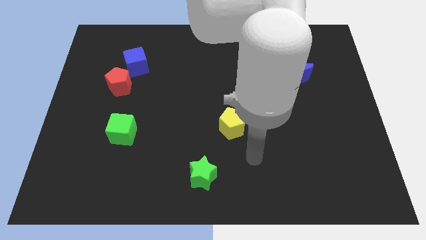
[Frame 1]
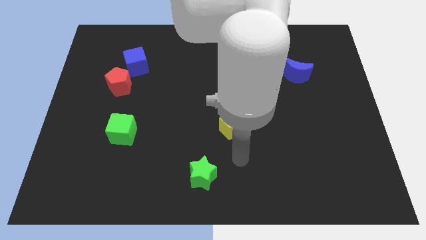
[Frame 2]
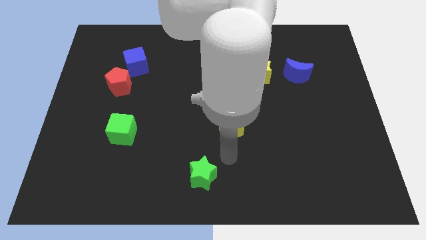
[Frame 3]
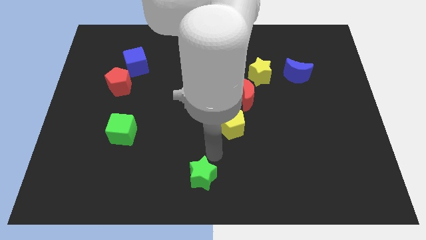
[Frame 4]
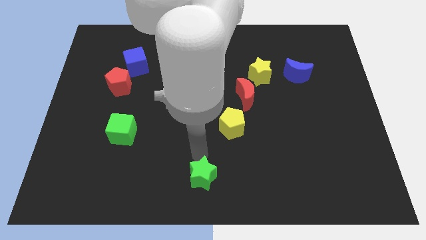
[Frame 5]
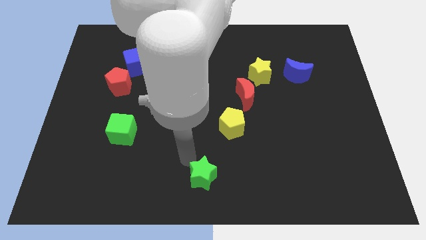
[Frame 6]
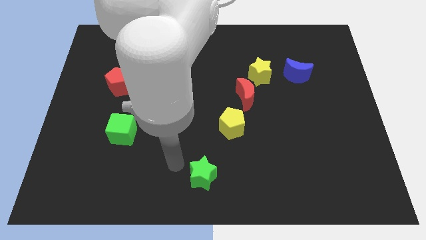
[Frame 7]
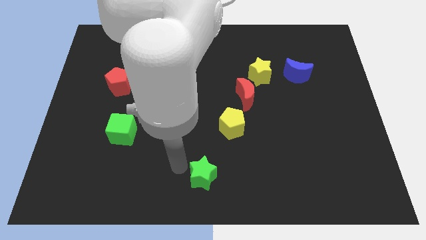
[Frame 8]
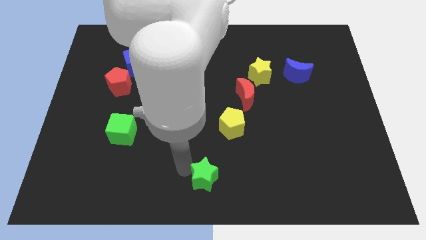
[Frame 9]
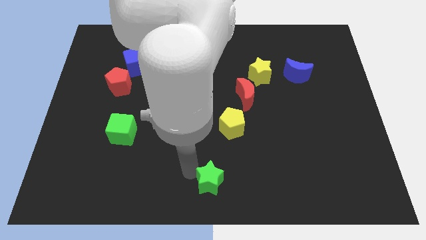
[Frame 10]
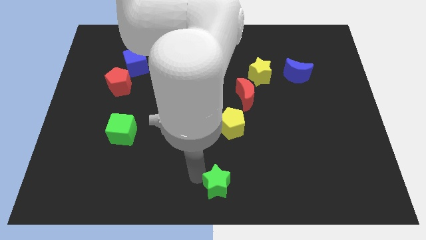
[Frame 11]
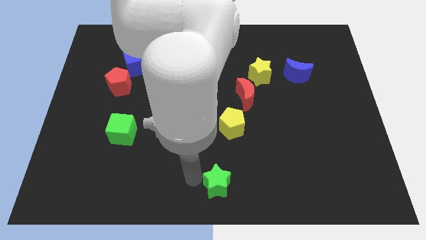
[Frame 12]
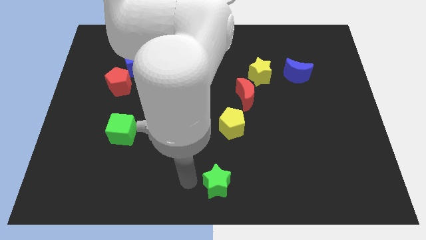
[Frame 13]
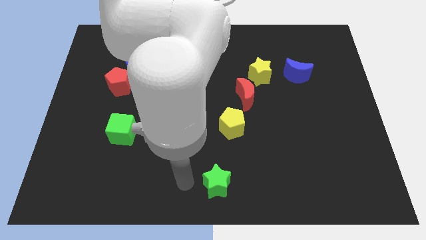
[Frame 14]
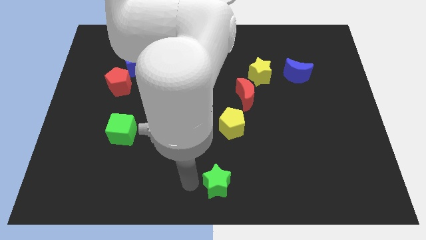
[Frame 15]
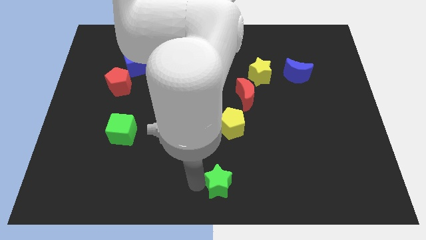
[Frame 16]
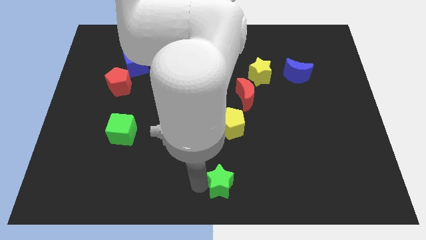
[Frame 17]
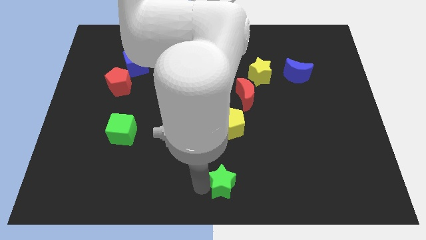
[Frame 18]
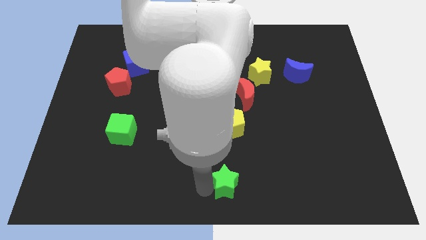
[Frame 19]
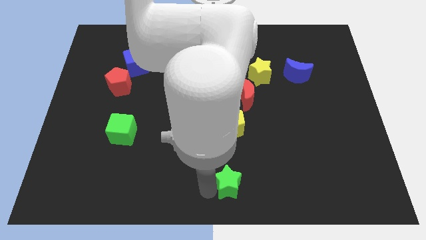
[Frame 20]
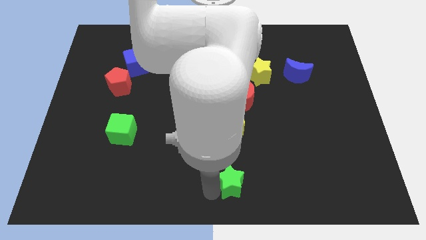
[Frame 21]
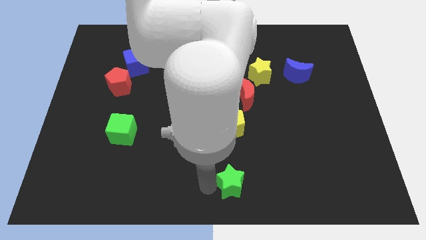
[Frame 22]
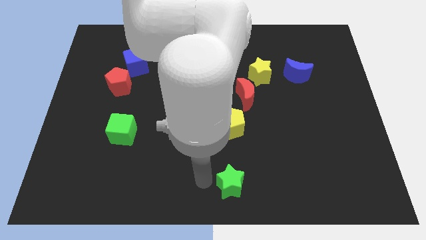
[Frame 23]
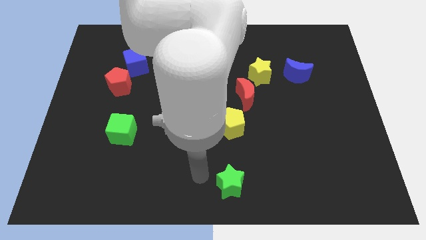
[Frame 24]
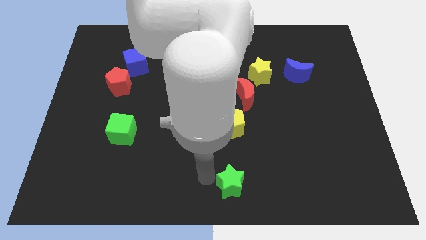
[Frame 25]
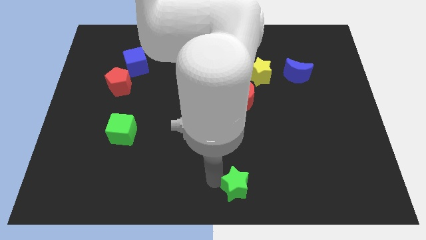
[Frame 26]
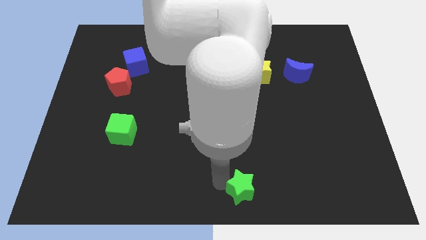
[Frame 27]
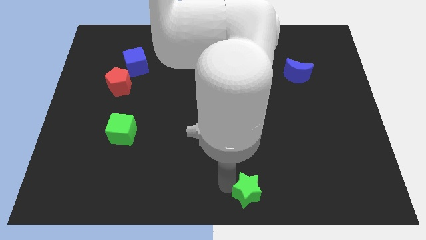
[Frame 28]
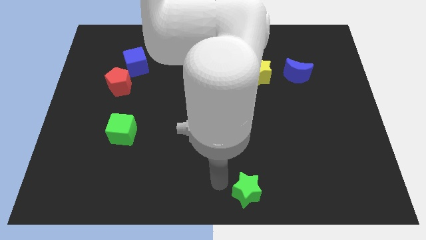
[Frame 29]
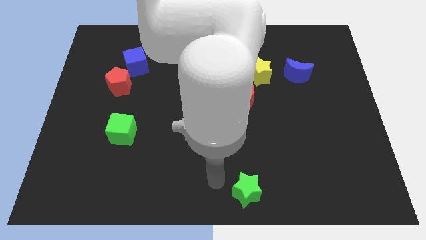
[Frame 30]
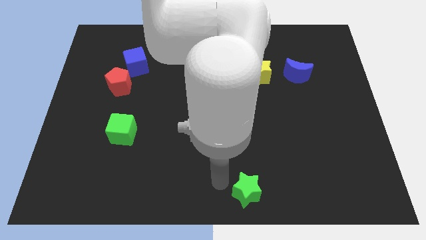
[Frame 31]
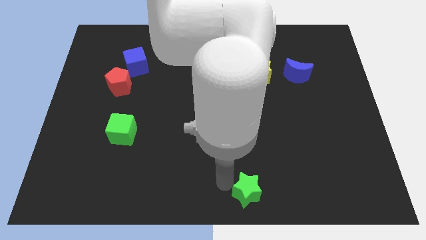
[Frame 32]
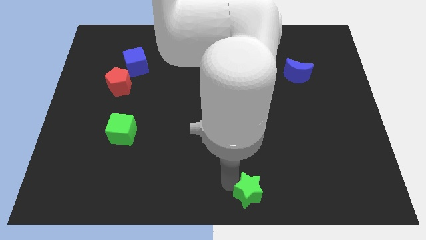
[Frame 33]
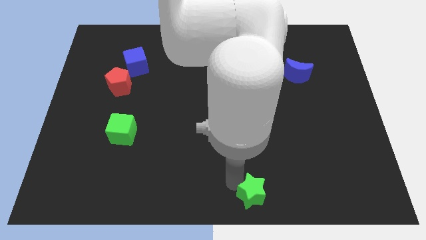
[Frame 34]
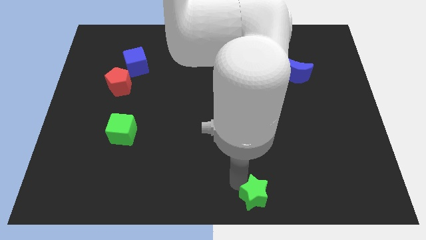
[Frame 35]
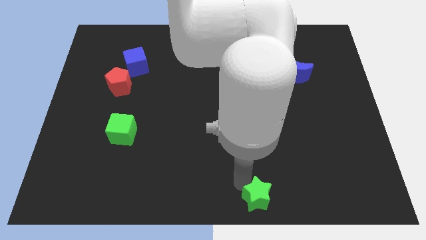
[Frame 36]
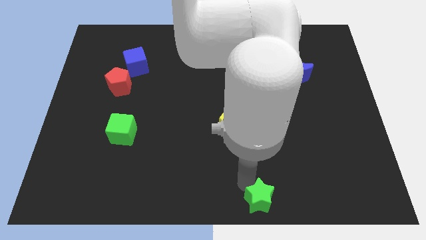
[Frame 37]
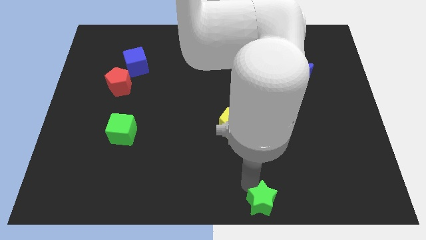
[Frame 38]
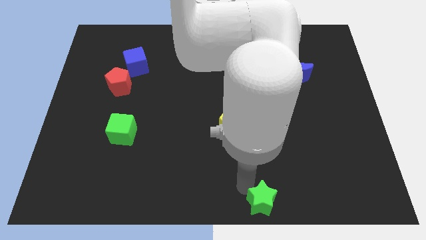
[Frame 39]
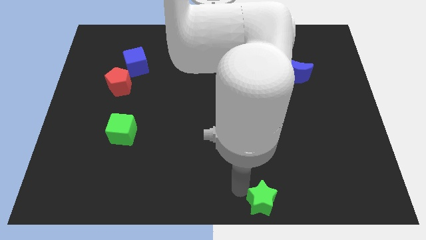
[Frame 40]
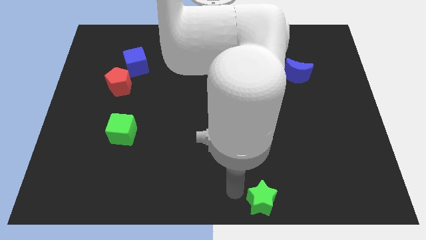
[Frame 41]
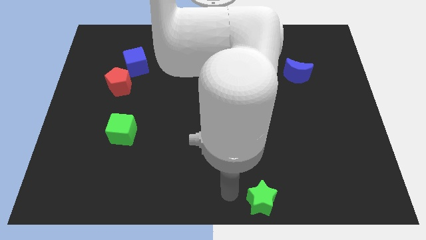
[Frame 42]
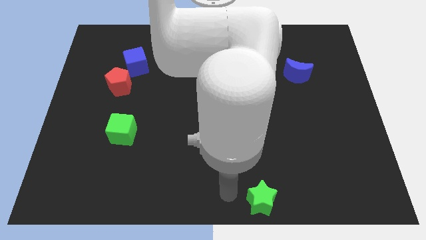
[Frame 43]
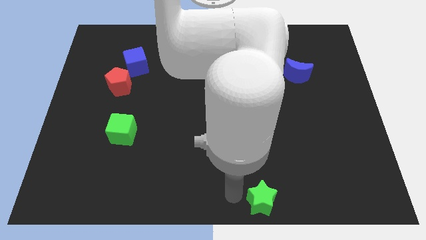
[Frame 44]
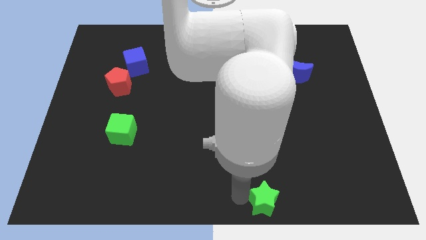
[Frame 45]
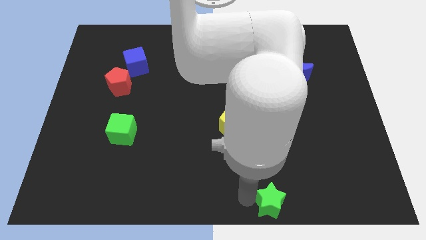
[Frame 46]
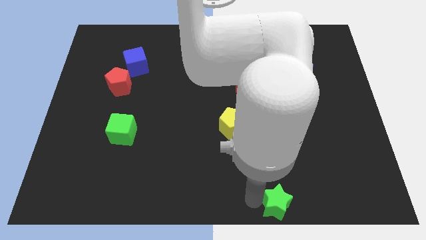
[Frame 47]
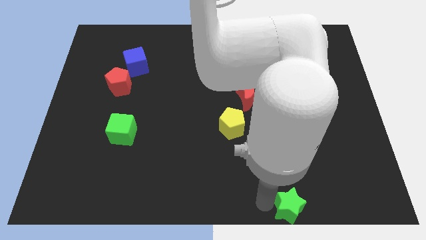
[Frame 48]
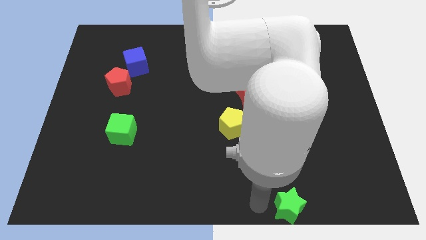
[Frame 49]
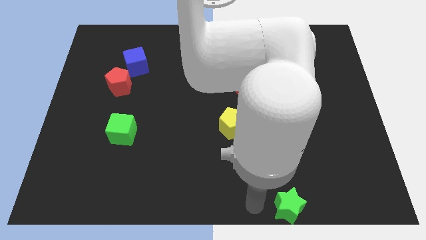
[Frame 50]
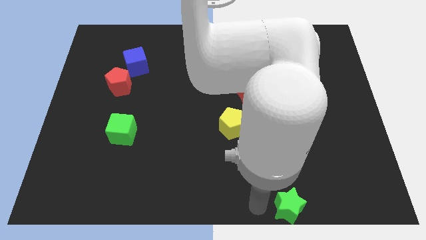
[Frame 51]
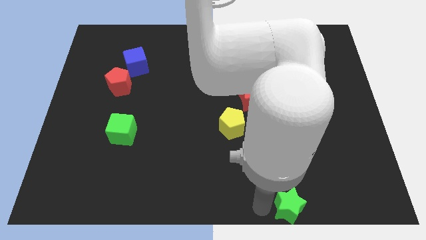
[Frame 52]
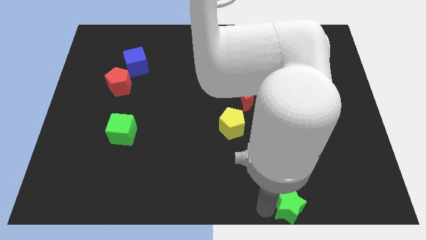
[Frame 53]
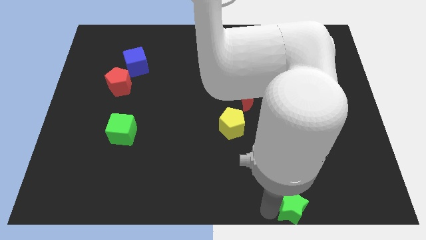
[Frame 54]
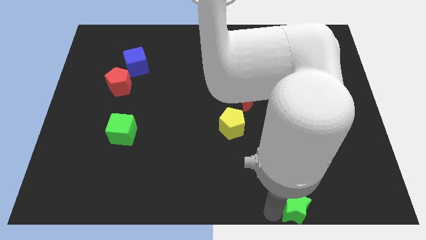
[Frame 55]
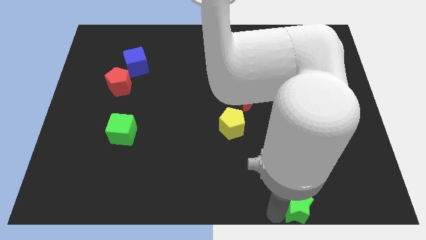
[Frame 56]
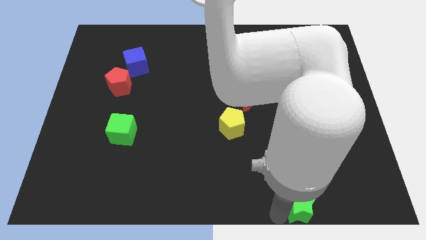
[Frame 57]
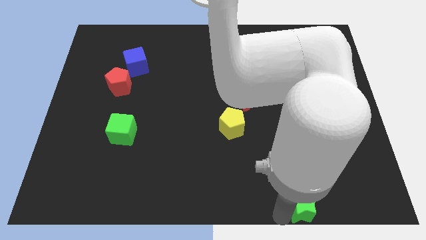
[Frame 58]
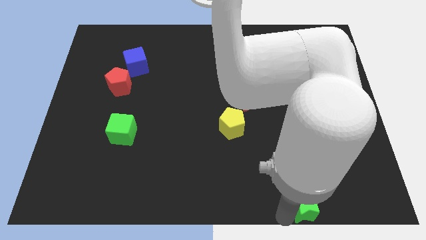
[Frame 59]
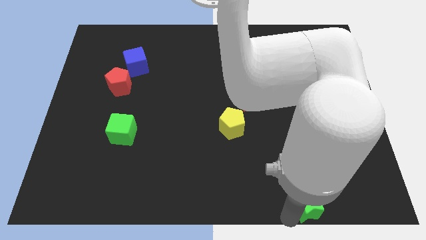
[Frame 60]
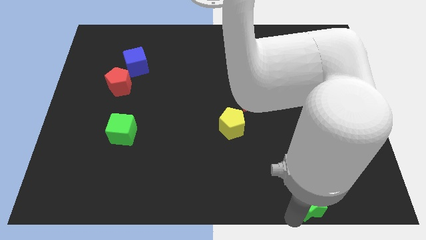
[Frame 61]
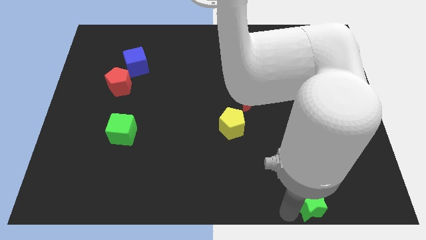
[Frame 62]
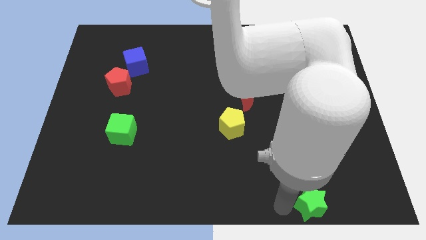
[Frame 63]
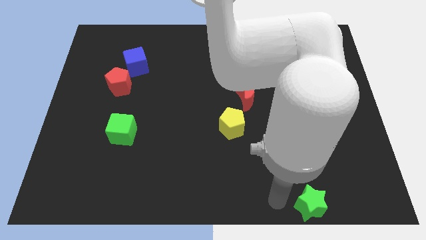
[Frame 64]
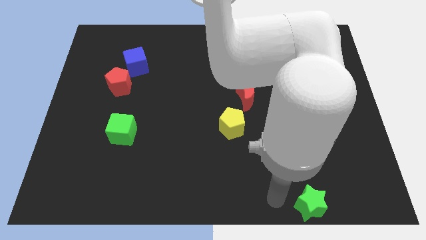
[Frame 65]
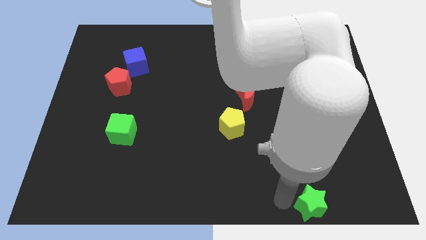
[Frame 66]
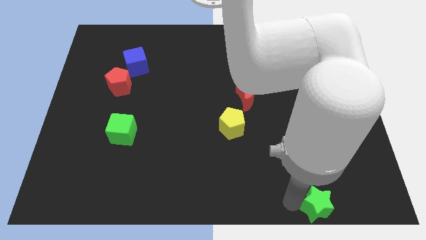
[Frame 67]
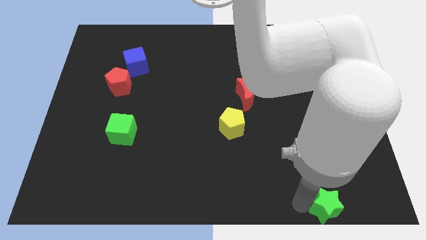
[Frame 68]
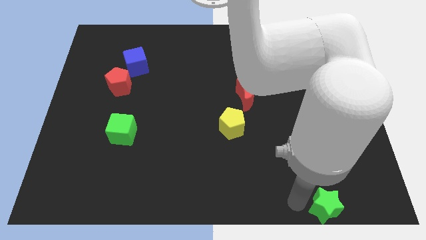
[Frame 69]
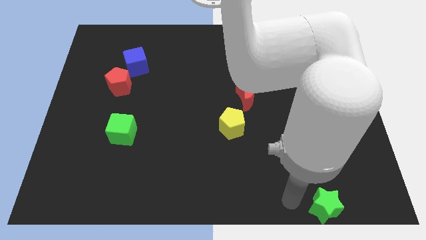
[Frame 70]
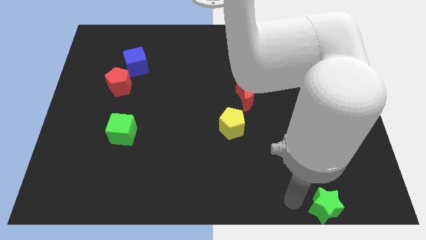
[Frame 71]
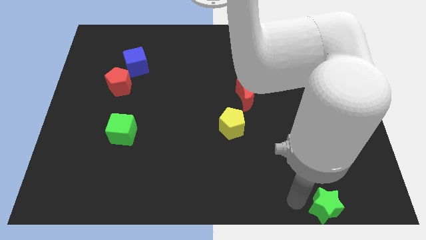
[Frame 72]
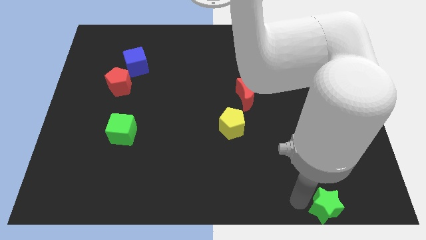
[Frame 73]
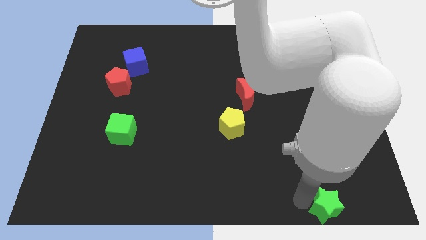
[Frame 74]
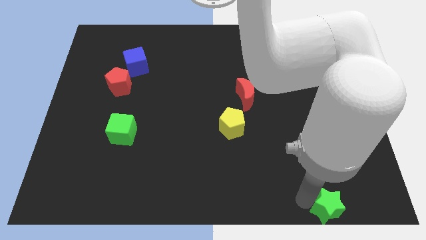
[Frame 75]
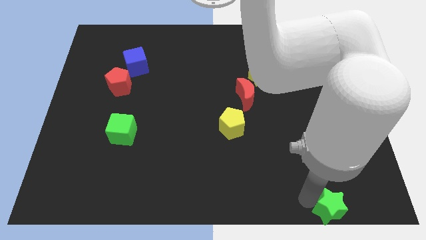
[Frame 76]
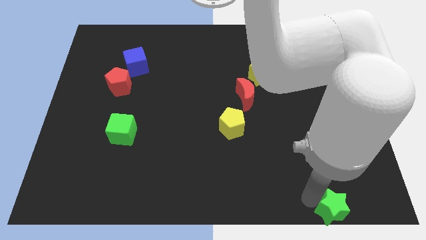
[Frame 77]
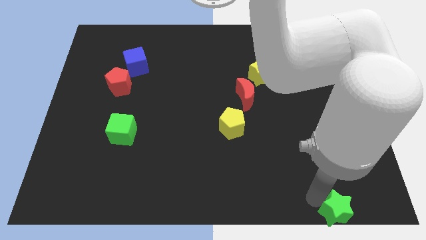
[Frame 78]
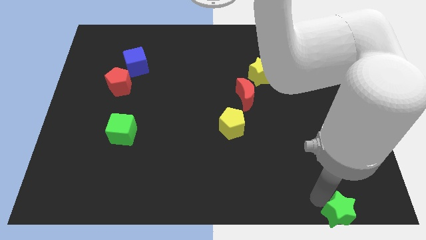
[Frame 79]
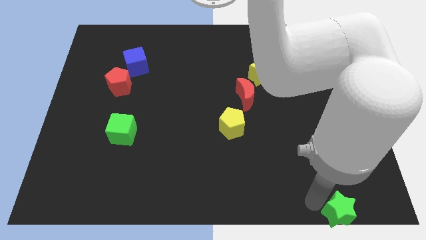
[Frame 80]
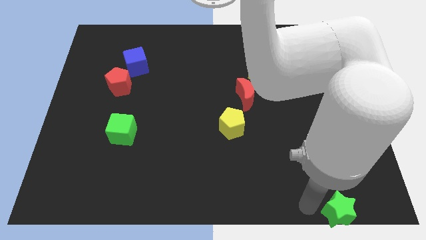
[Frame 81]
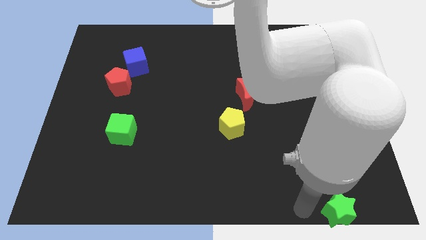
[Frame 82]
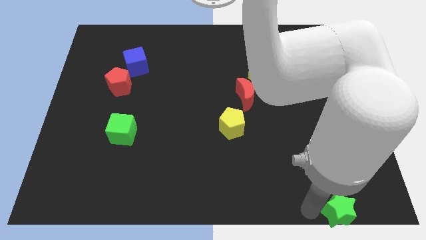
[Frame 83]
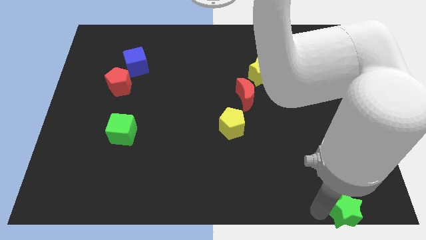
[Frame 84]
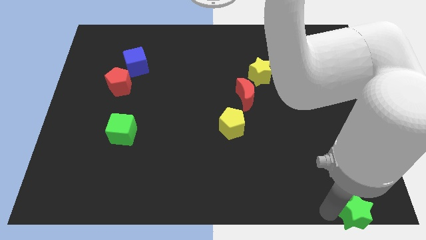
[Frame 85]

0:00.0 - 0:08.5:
push the green star to the bottom right corner
